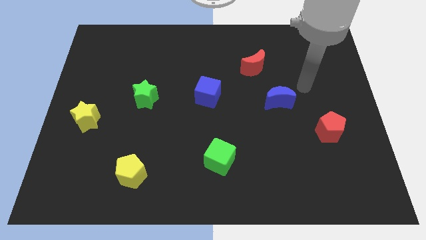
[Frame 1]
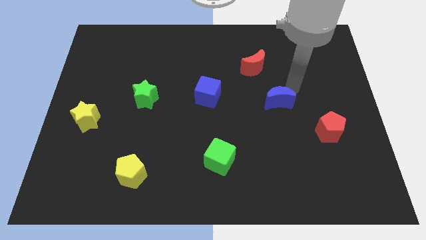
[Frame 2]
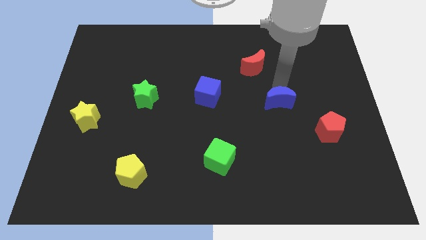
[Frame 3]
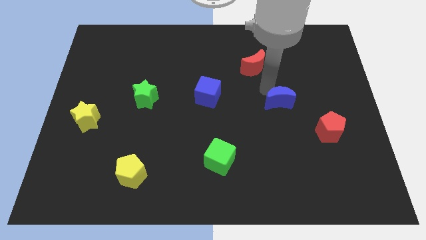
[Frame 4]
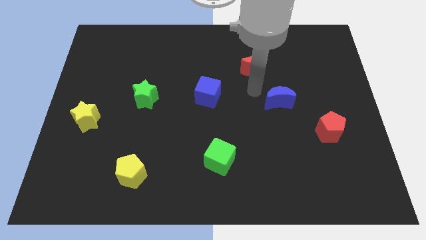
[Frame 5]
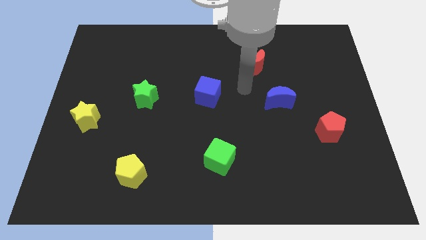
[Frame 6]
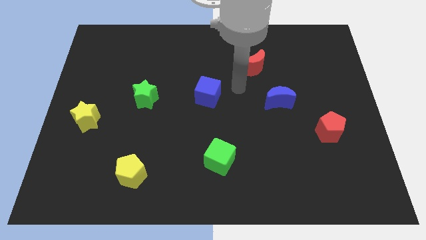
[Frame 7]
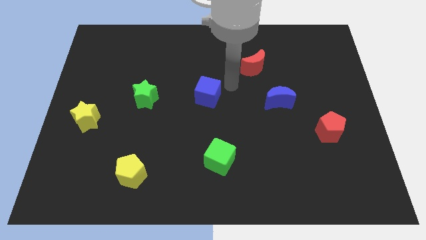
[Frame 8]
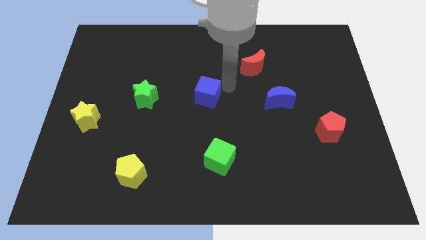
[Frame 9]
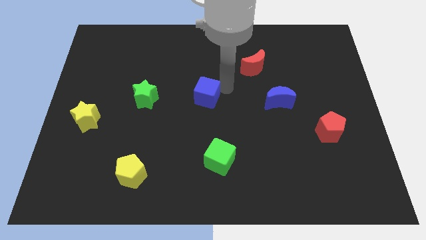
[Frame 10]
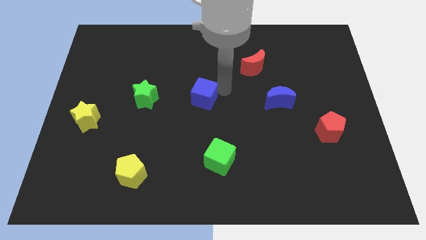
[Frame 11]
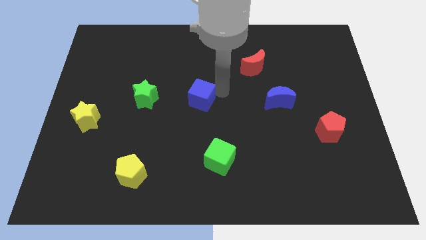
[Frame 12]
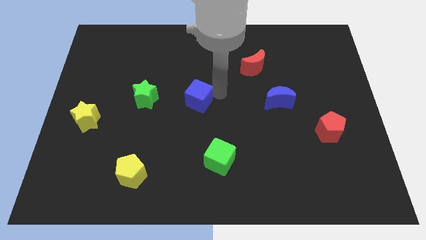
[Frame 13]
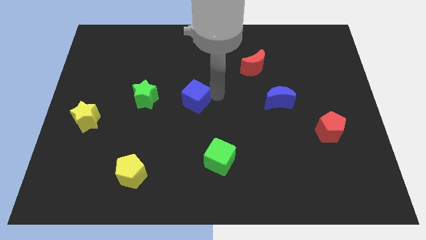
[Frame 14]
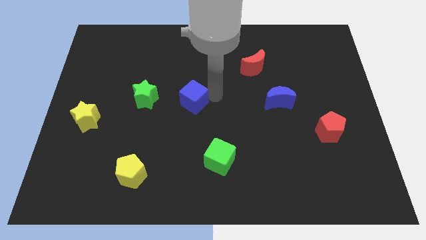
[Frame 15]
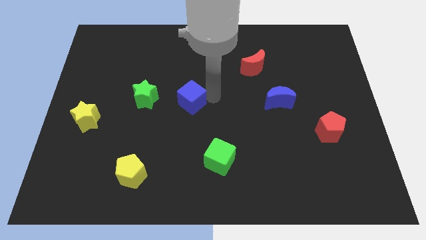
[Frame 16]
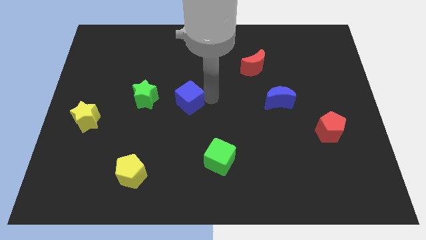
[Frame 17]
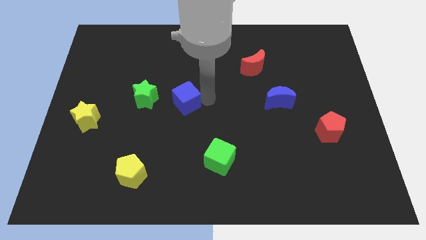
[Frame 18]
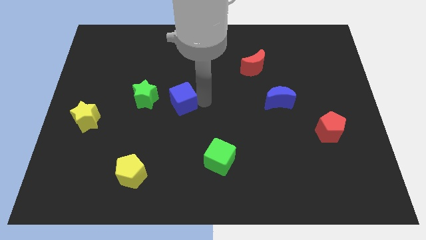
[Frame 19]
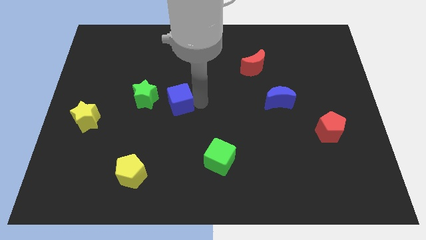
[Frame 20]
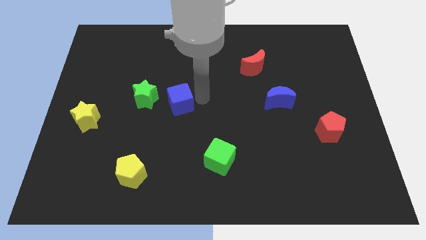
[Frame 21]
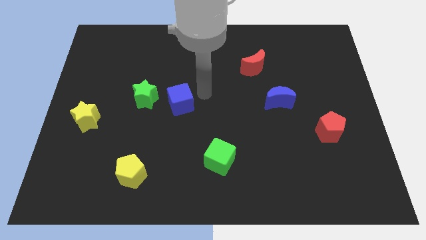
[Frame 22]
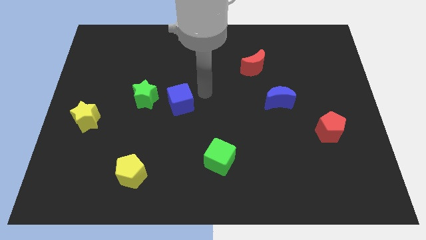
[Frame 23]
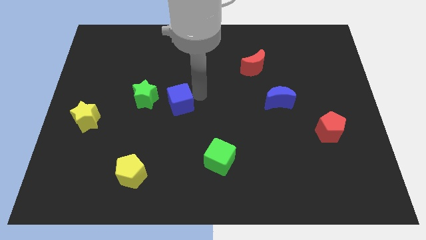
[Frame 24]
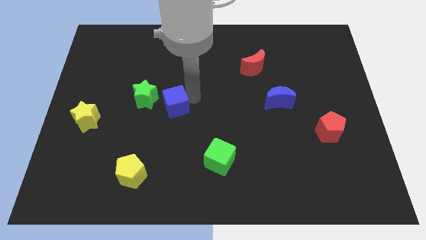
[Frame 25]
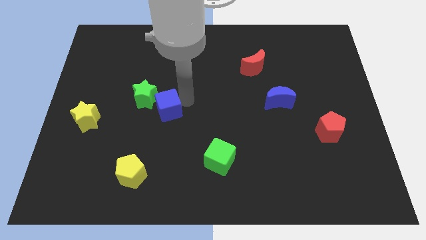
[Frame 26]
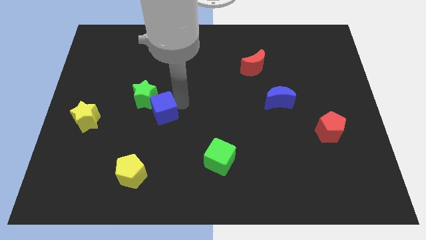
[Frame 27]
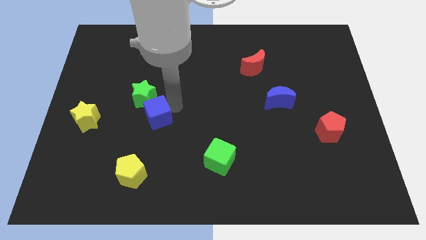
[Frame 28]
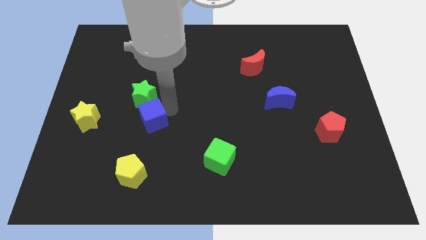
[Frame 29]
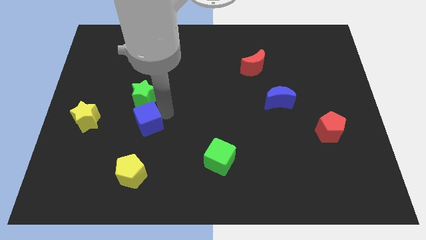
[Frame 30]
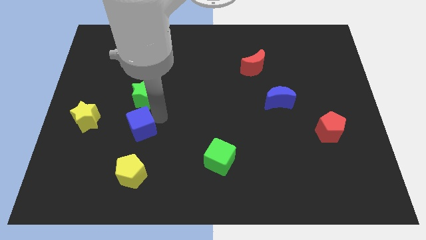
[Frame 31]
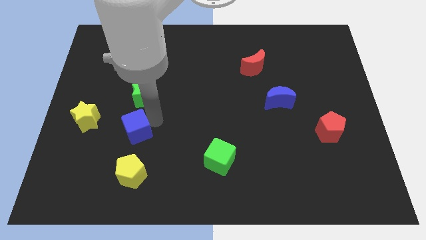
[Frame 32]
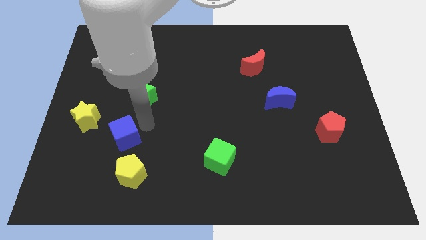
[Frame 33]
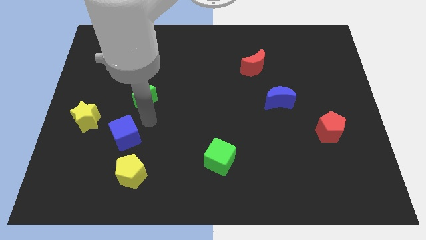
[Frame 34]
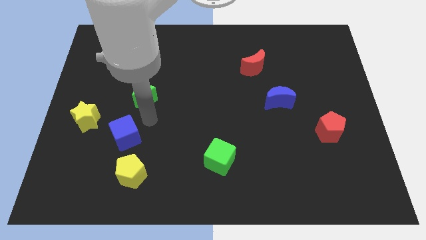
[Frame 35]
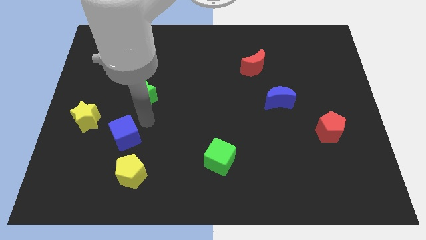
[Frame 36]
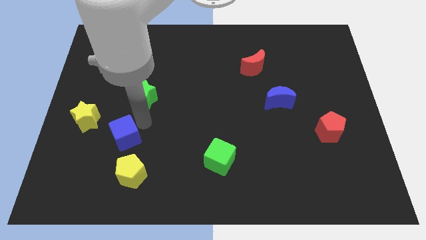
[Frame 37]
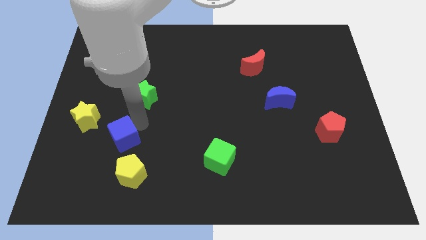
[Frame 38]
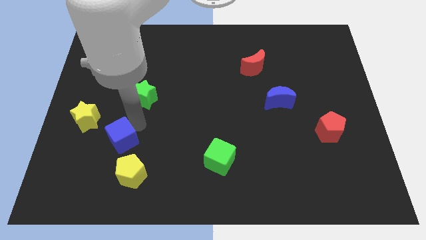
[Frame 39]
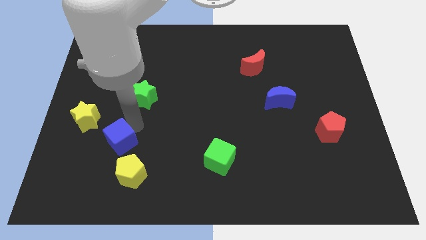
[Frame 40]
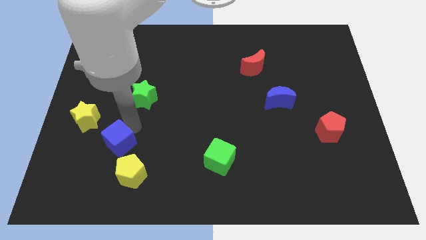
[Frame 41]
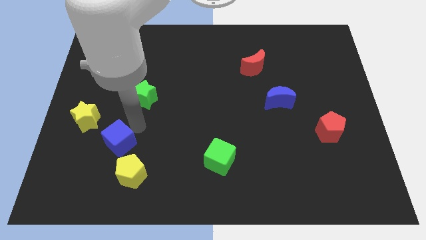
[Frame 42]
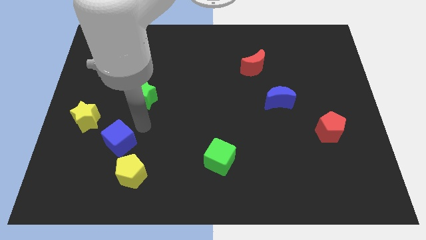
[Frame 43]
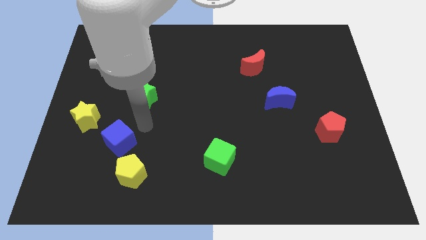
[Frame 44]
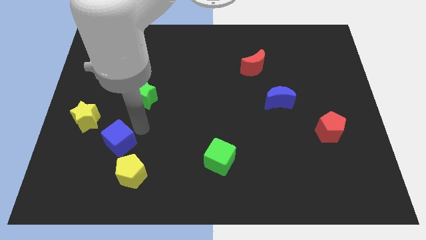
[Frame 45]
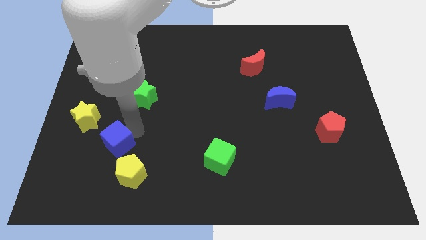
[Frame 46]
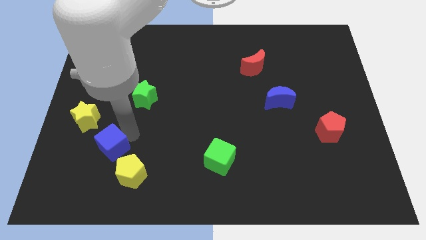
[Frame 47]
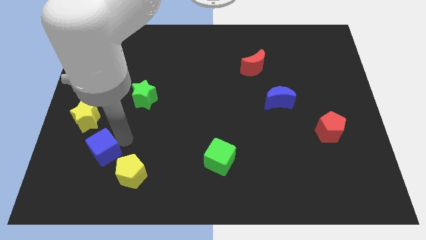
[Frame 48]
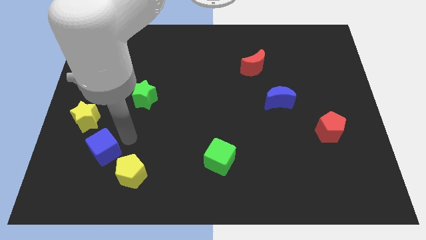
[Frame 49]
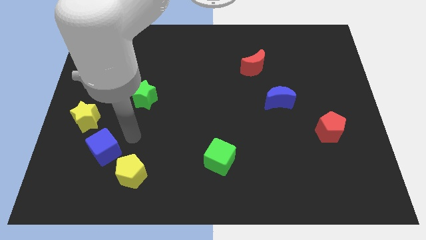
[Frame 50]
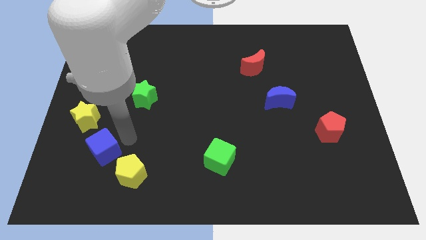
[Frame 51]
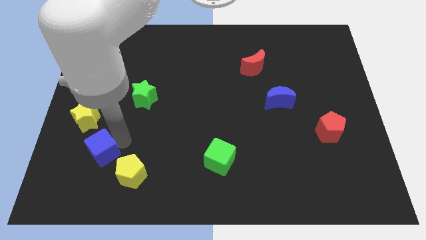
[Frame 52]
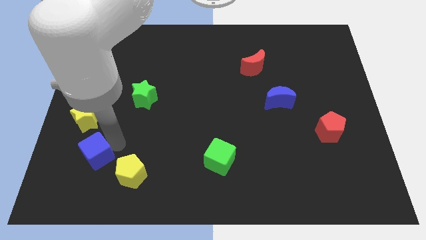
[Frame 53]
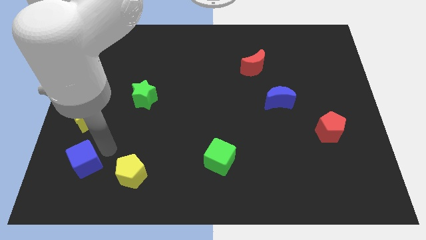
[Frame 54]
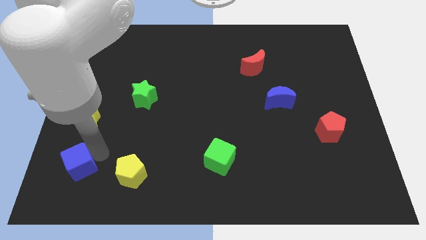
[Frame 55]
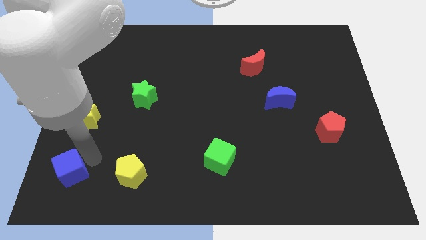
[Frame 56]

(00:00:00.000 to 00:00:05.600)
move the blue cube to the lower left corner

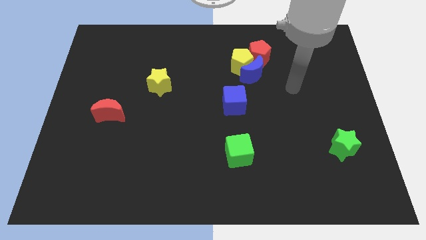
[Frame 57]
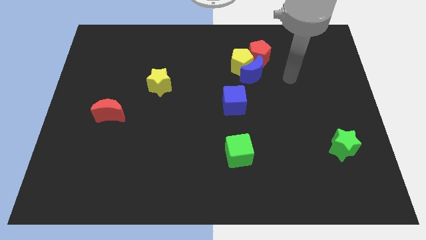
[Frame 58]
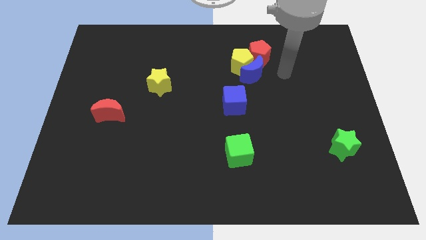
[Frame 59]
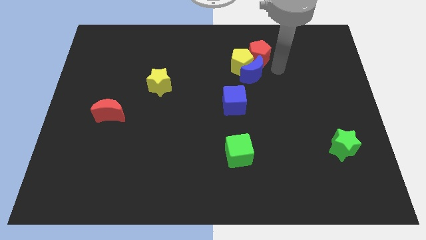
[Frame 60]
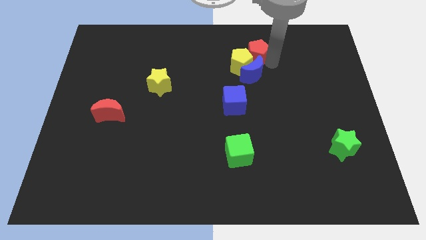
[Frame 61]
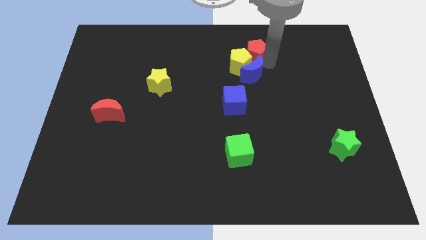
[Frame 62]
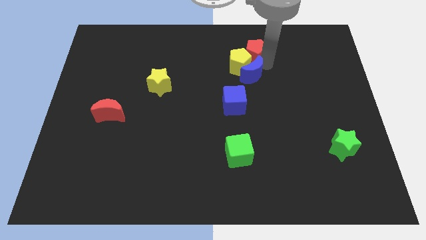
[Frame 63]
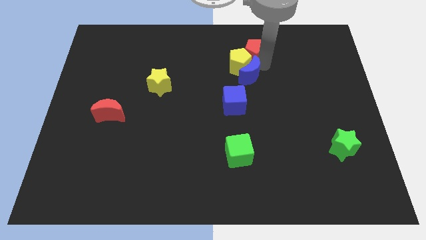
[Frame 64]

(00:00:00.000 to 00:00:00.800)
push the blue moon to the middle

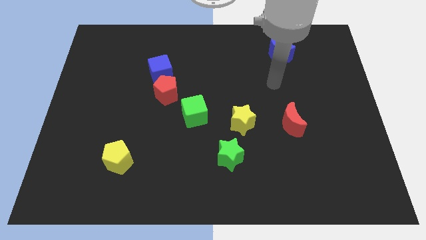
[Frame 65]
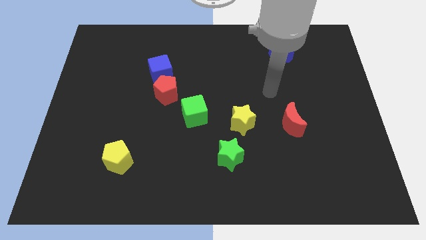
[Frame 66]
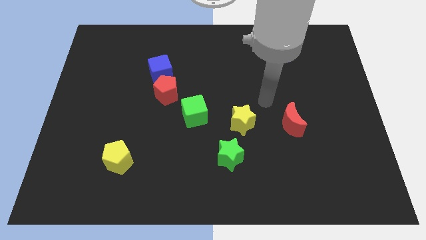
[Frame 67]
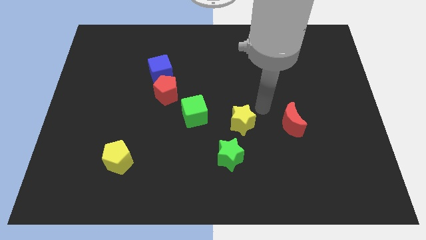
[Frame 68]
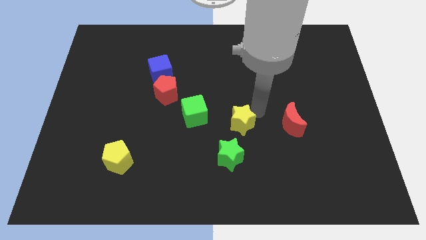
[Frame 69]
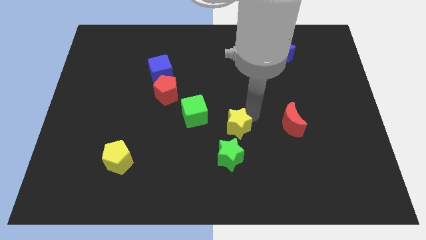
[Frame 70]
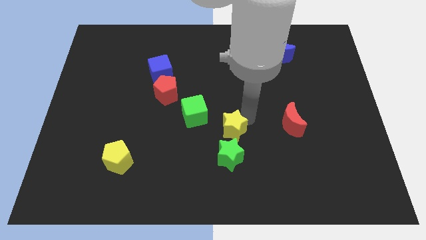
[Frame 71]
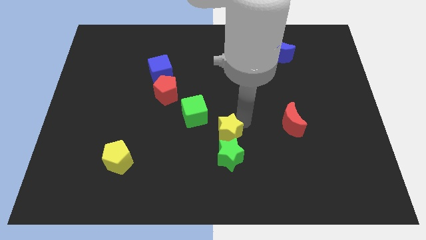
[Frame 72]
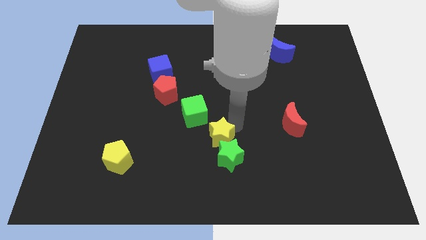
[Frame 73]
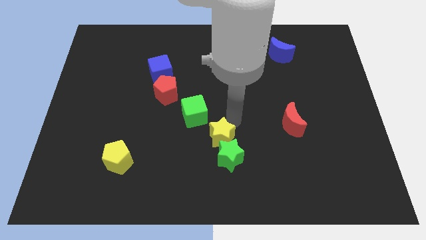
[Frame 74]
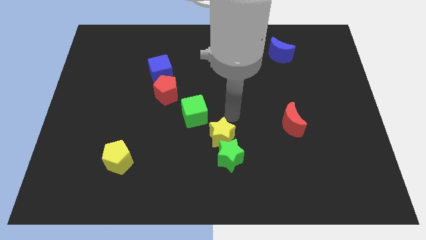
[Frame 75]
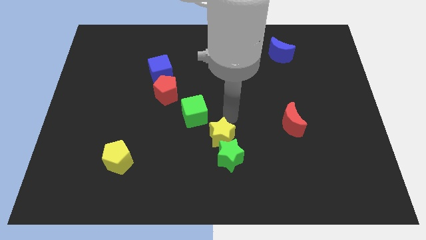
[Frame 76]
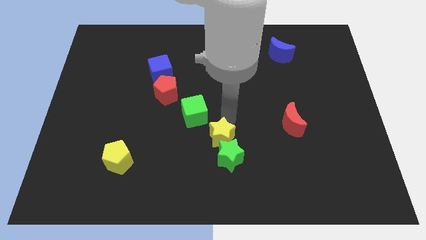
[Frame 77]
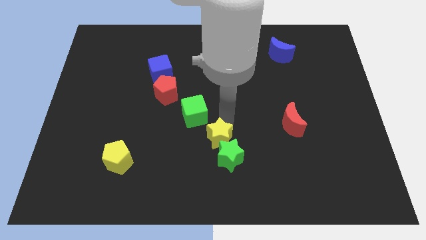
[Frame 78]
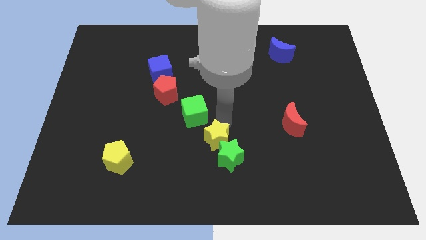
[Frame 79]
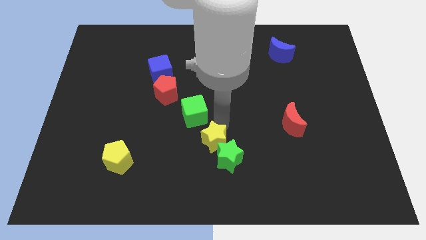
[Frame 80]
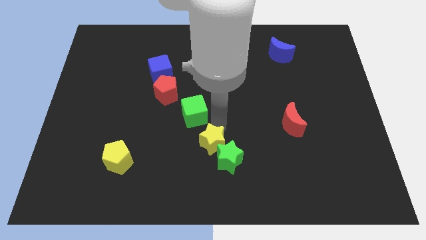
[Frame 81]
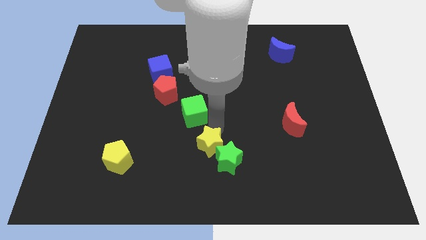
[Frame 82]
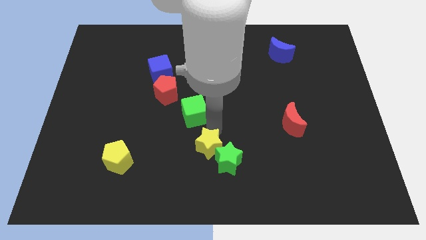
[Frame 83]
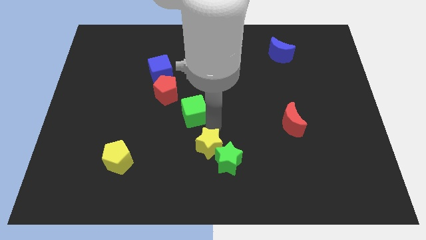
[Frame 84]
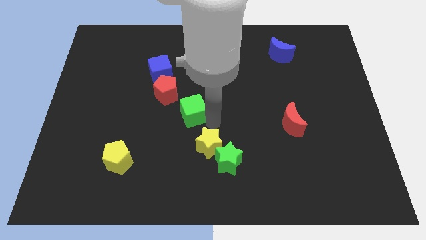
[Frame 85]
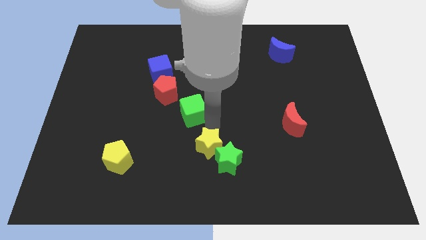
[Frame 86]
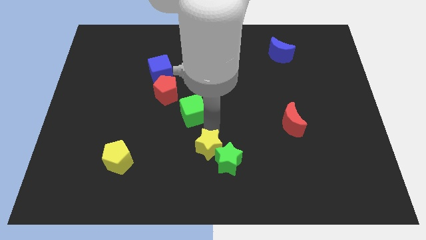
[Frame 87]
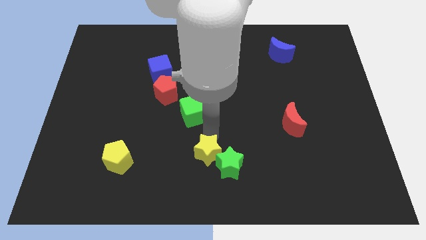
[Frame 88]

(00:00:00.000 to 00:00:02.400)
slide the yellow star to the bottom side
